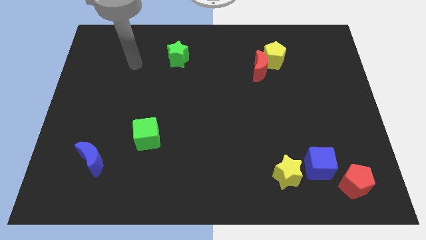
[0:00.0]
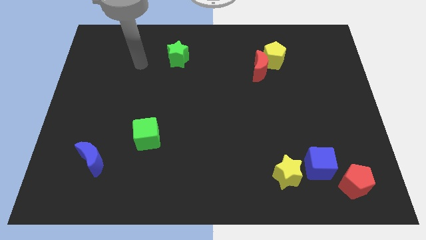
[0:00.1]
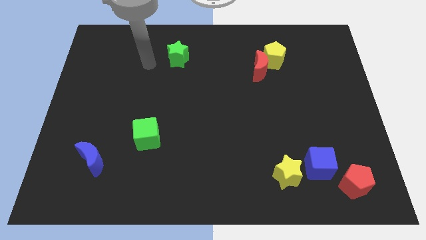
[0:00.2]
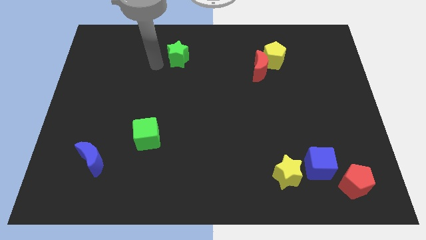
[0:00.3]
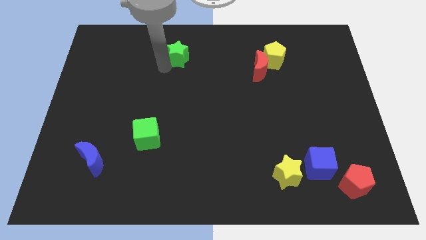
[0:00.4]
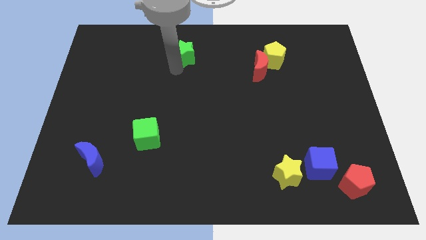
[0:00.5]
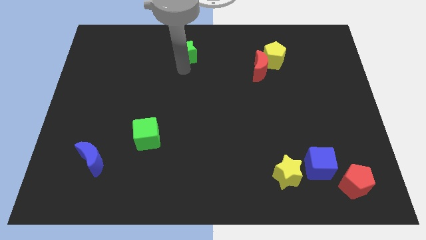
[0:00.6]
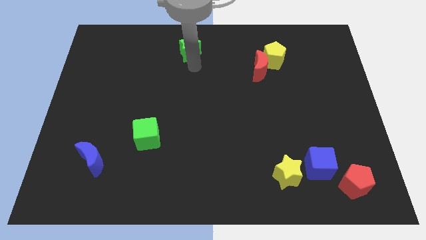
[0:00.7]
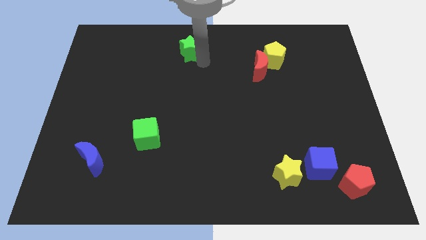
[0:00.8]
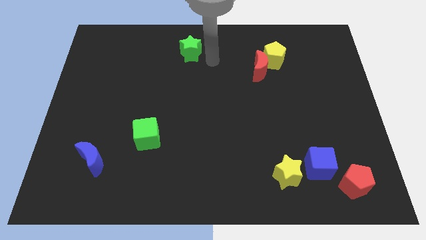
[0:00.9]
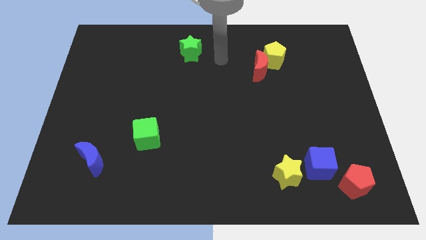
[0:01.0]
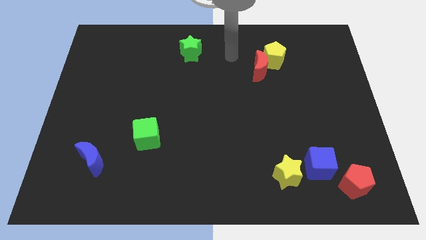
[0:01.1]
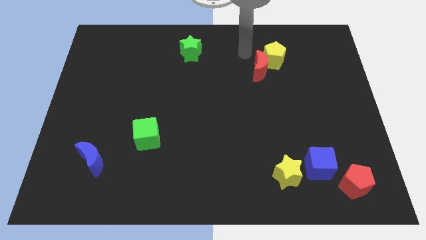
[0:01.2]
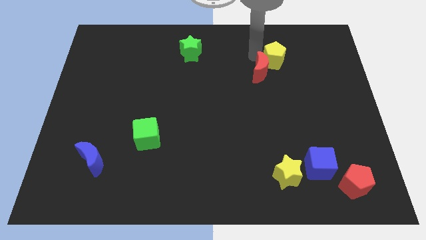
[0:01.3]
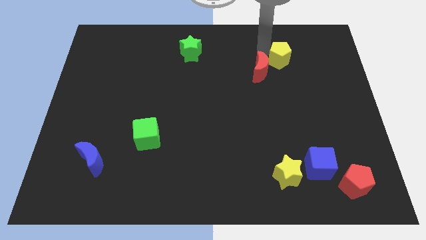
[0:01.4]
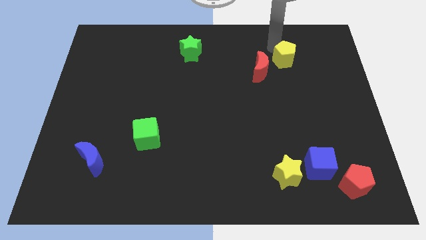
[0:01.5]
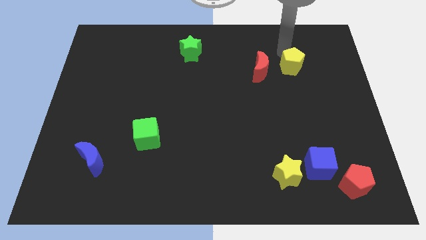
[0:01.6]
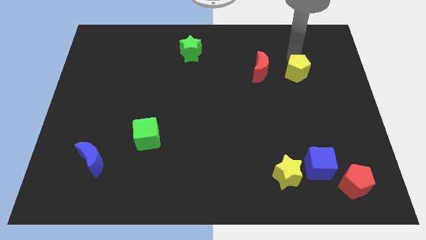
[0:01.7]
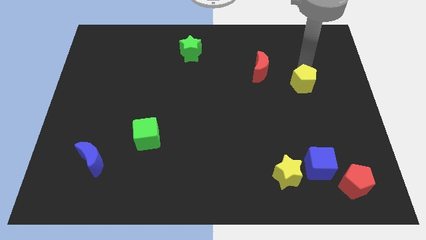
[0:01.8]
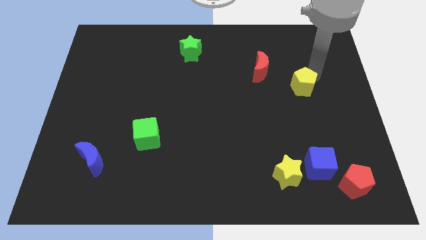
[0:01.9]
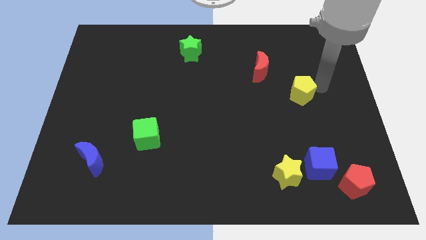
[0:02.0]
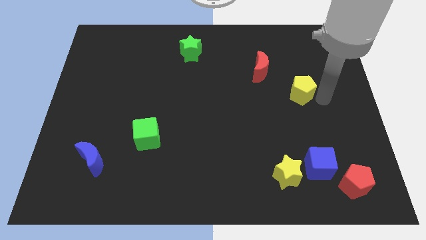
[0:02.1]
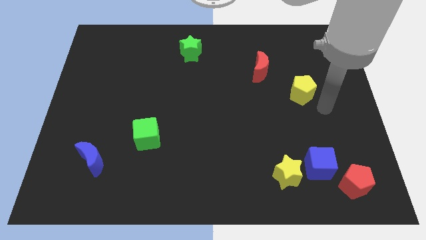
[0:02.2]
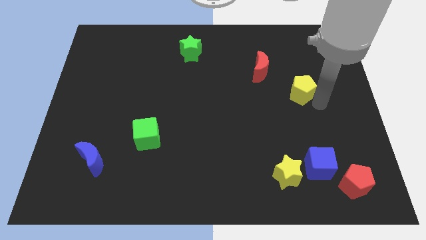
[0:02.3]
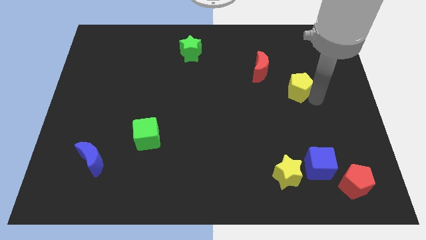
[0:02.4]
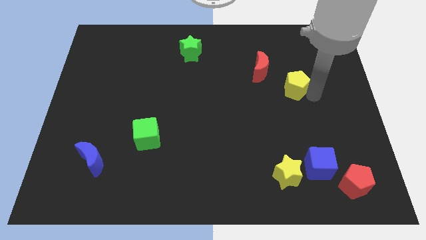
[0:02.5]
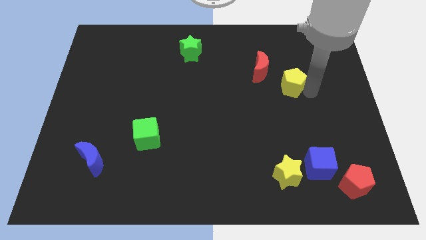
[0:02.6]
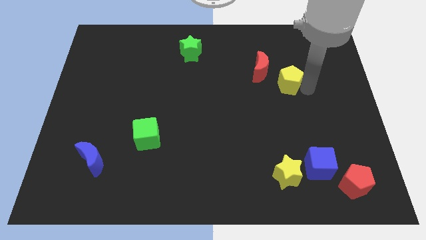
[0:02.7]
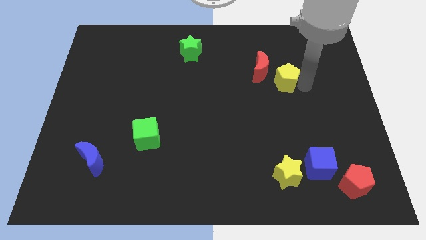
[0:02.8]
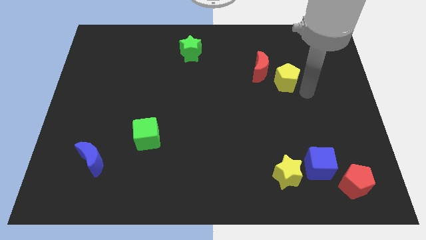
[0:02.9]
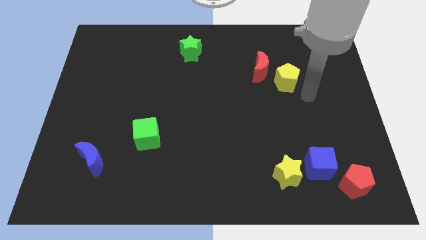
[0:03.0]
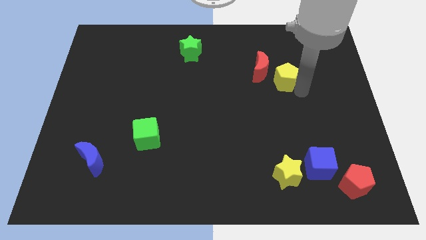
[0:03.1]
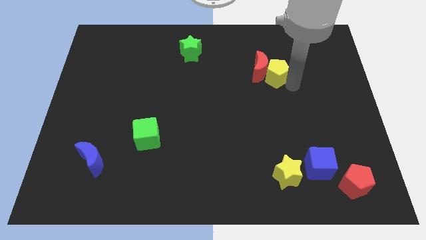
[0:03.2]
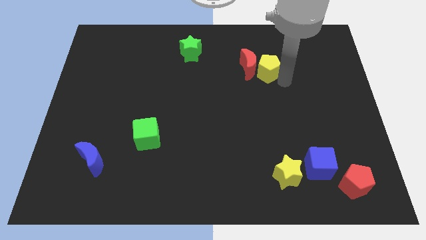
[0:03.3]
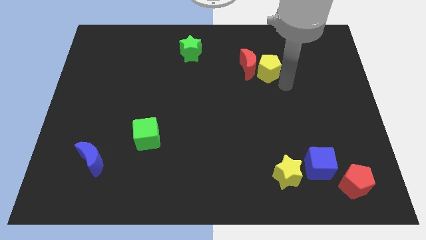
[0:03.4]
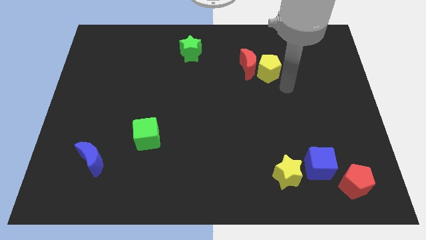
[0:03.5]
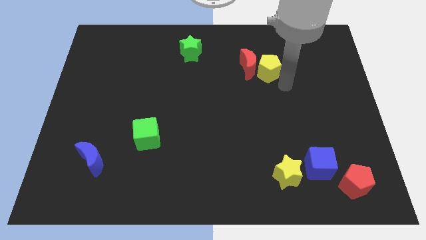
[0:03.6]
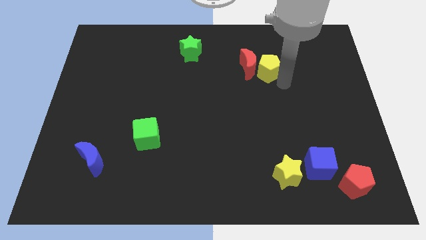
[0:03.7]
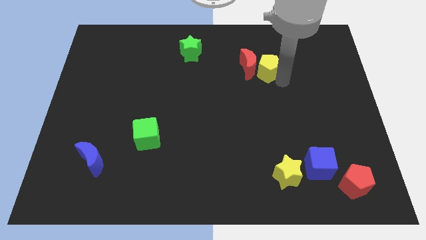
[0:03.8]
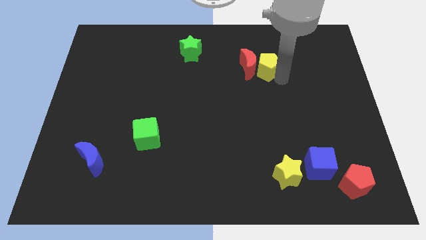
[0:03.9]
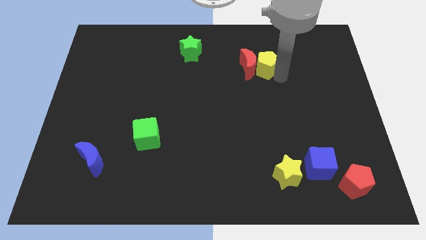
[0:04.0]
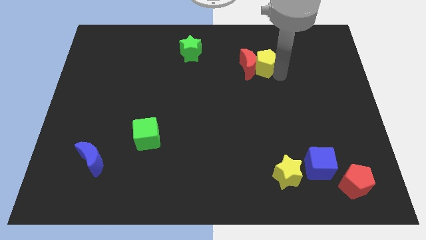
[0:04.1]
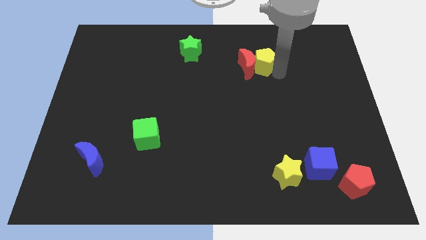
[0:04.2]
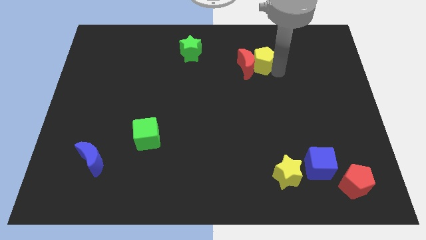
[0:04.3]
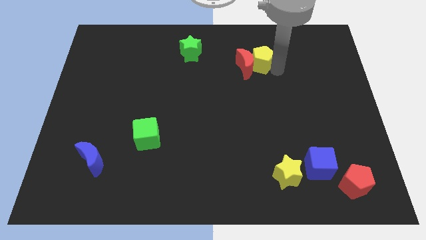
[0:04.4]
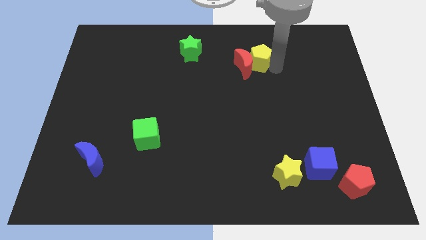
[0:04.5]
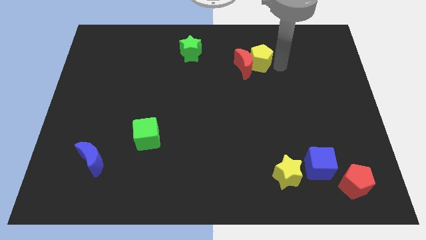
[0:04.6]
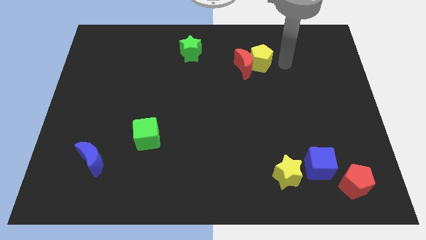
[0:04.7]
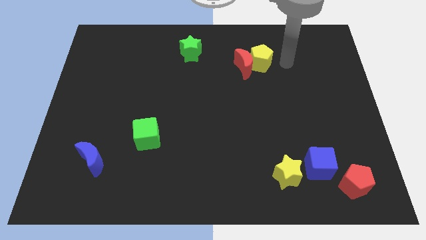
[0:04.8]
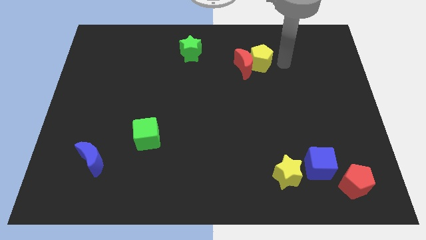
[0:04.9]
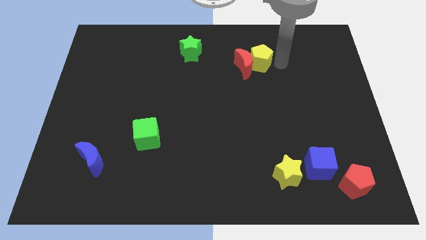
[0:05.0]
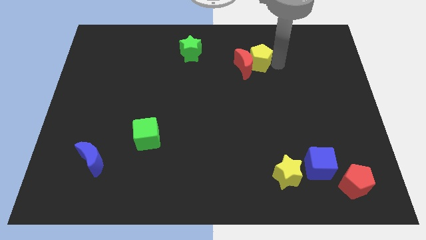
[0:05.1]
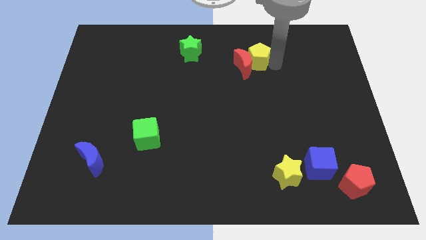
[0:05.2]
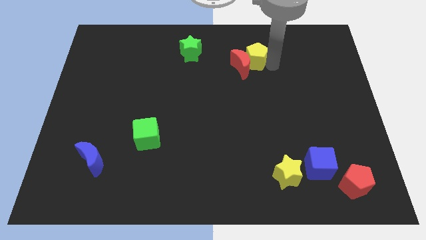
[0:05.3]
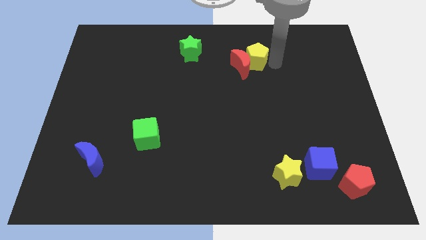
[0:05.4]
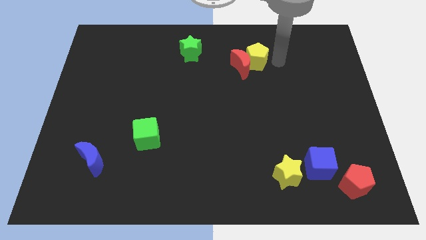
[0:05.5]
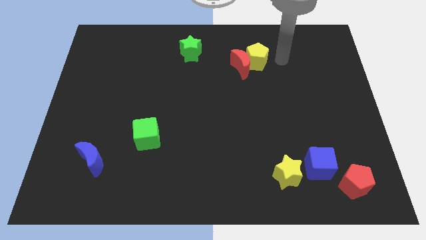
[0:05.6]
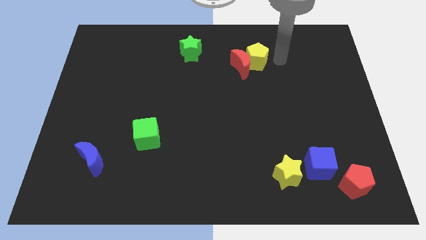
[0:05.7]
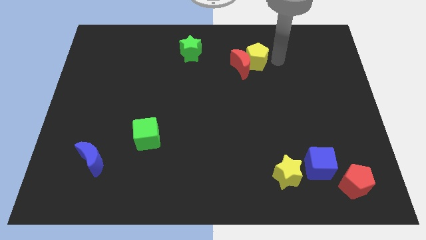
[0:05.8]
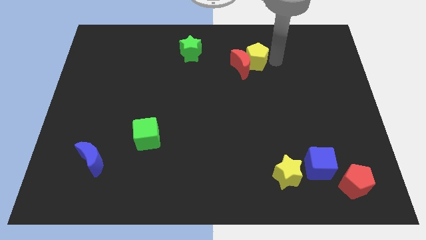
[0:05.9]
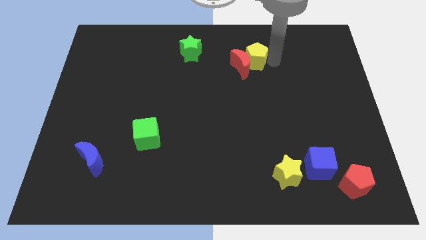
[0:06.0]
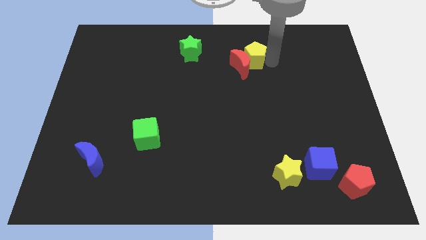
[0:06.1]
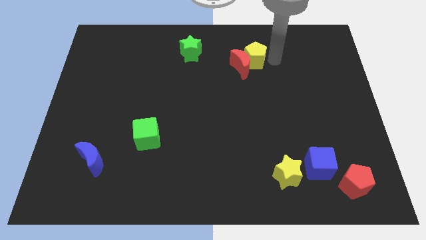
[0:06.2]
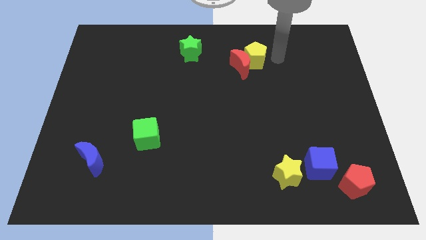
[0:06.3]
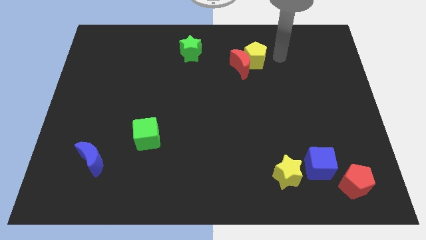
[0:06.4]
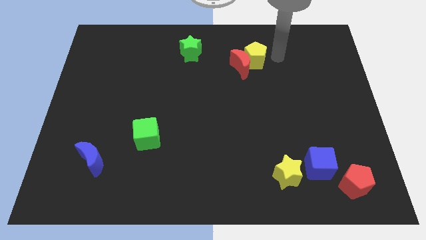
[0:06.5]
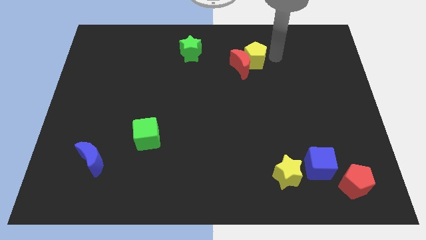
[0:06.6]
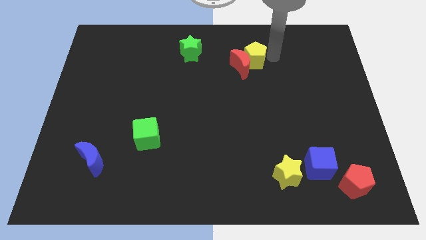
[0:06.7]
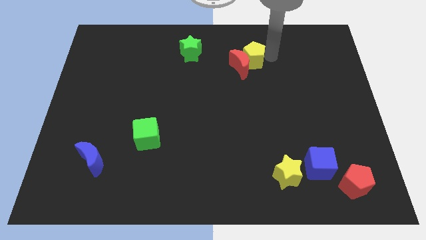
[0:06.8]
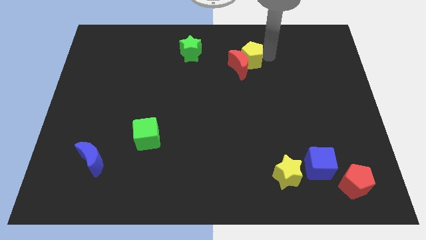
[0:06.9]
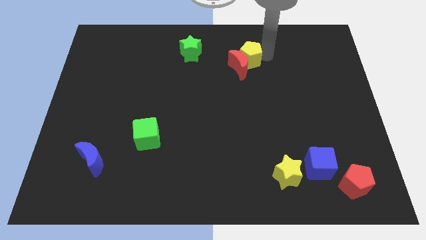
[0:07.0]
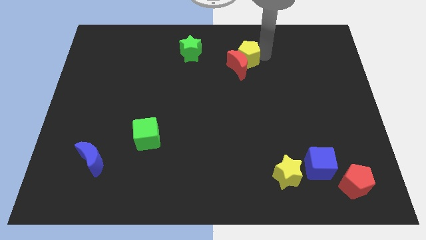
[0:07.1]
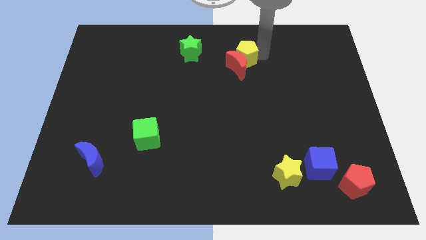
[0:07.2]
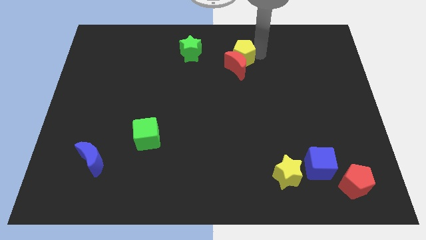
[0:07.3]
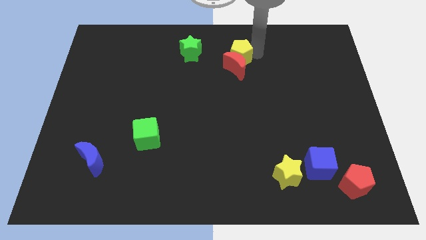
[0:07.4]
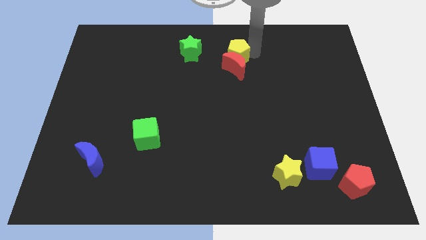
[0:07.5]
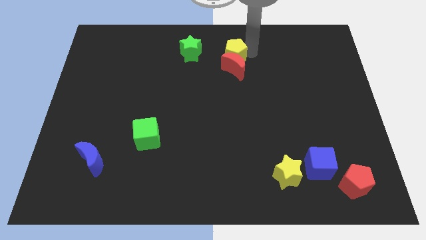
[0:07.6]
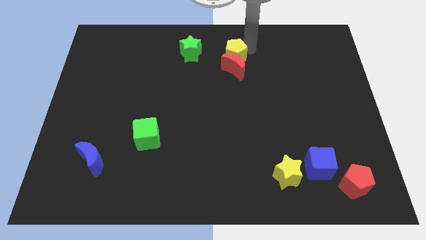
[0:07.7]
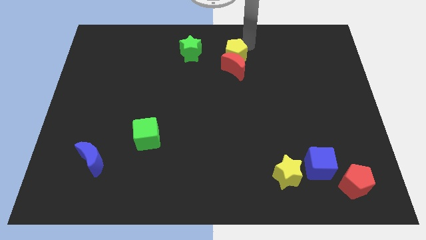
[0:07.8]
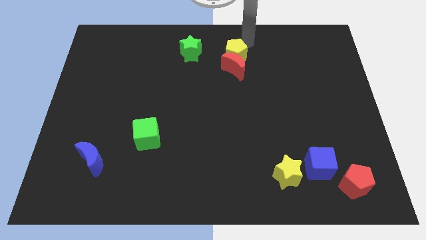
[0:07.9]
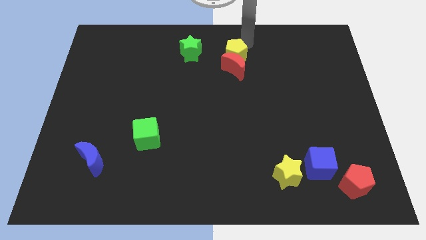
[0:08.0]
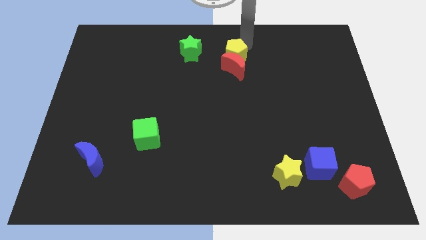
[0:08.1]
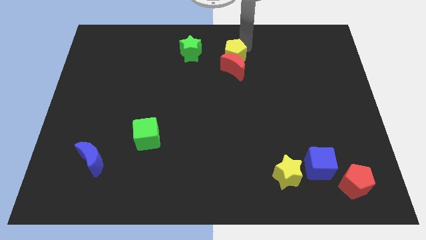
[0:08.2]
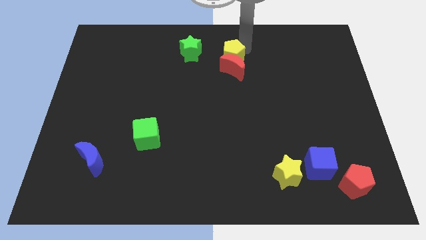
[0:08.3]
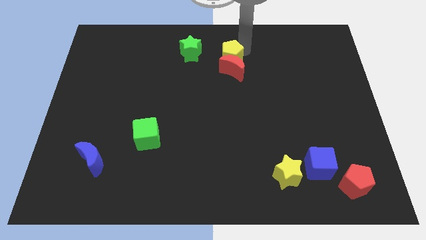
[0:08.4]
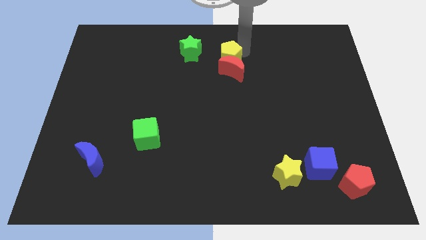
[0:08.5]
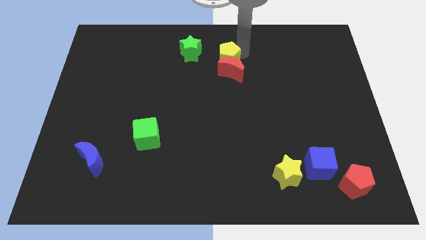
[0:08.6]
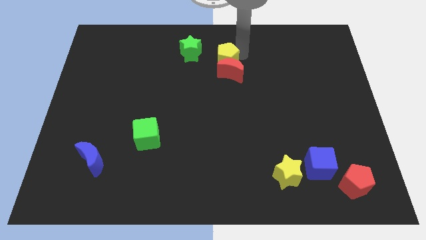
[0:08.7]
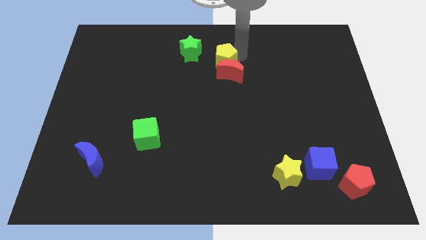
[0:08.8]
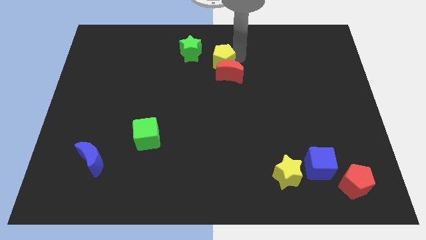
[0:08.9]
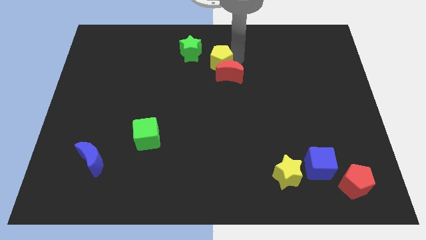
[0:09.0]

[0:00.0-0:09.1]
slide the yellow pentagon somewhat down and left
